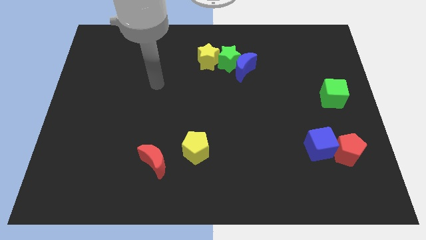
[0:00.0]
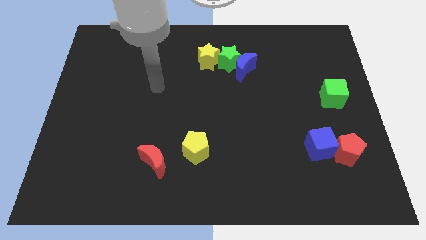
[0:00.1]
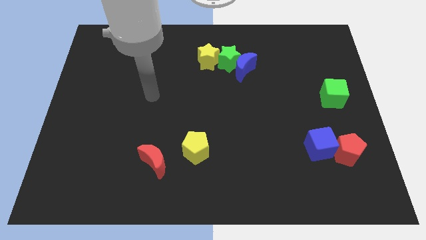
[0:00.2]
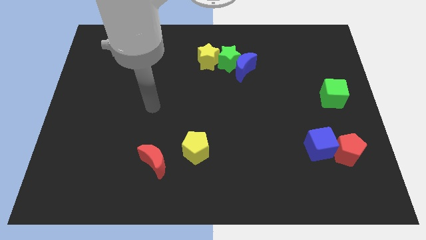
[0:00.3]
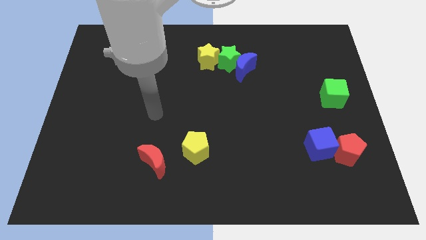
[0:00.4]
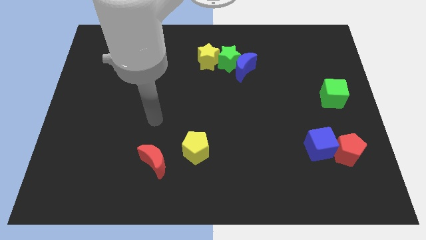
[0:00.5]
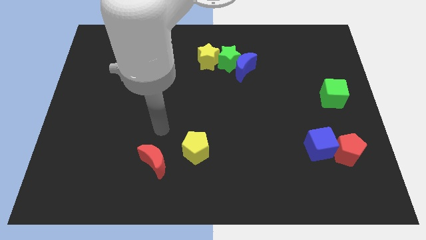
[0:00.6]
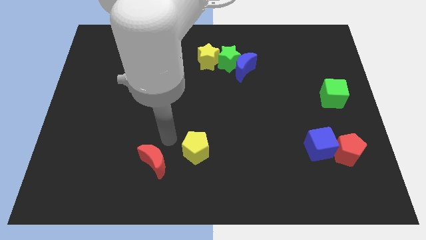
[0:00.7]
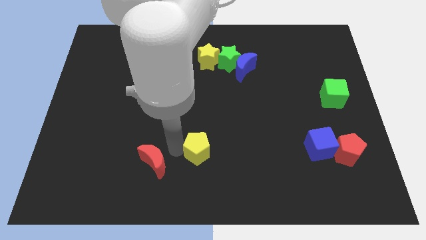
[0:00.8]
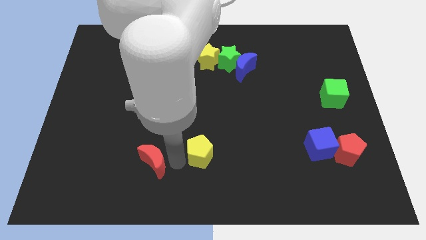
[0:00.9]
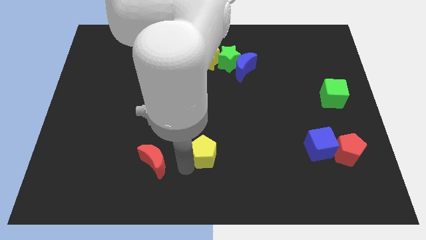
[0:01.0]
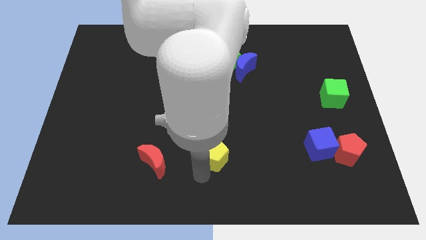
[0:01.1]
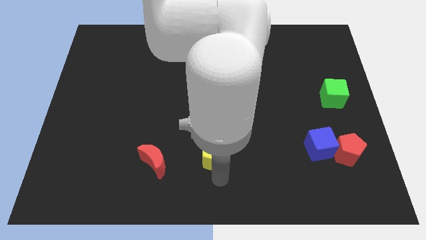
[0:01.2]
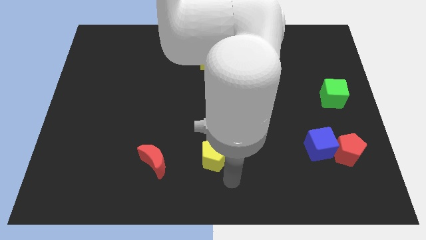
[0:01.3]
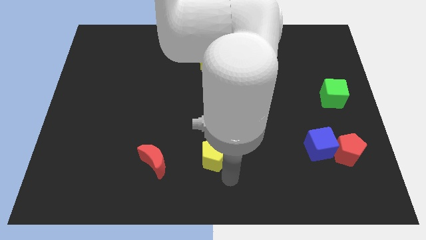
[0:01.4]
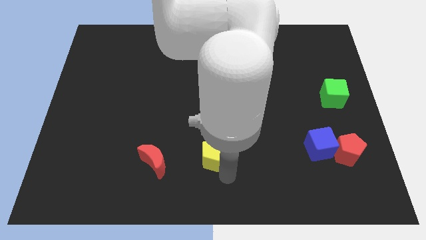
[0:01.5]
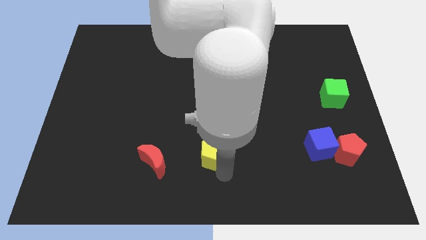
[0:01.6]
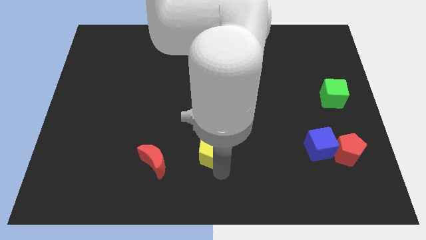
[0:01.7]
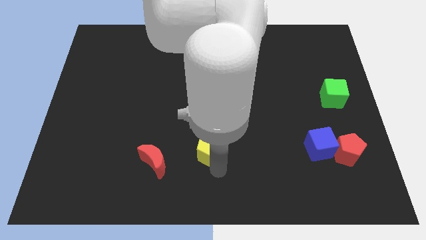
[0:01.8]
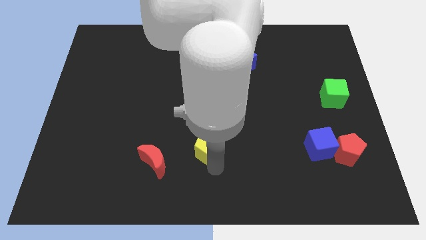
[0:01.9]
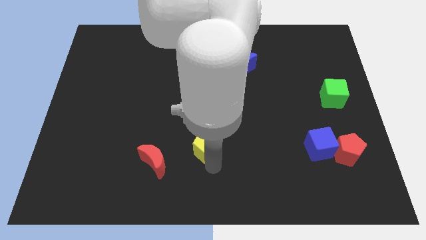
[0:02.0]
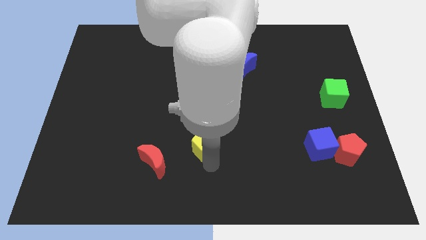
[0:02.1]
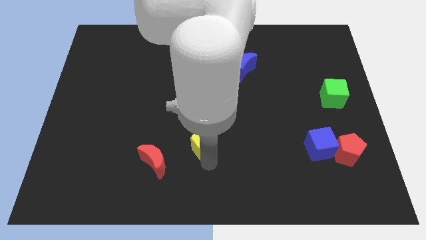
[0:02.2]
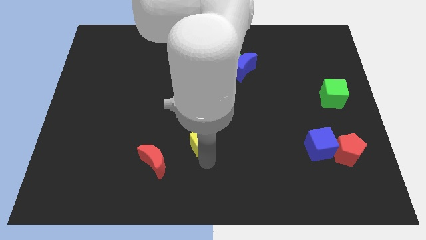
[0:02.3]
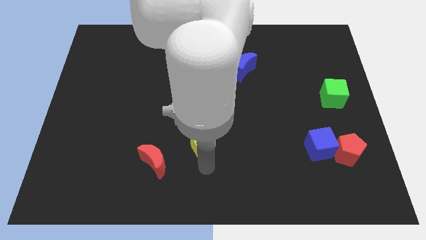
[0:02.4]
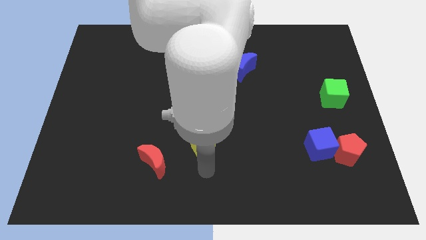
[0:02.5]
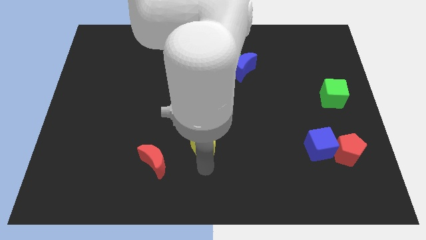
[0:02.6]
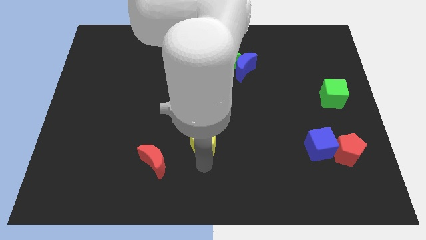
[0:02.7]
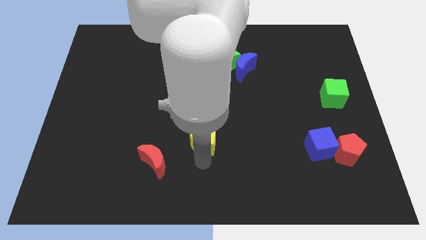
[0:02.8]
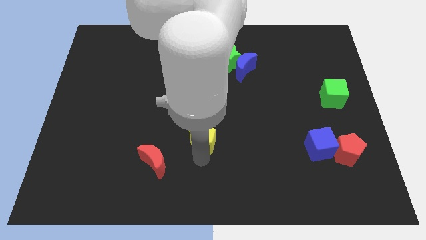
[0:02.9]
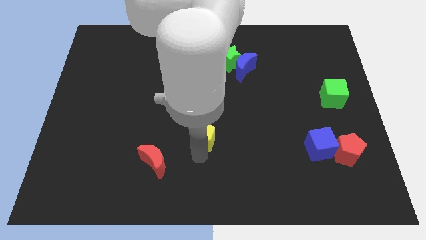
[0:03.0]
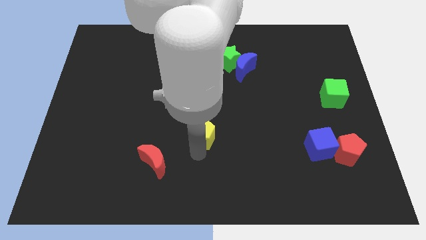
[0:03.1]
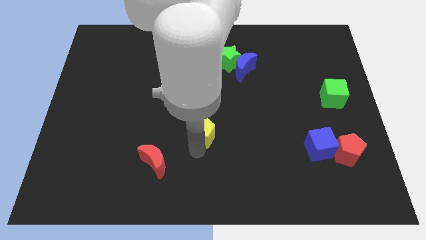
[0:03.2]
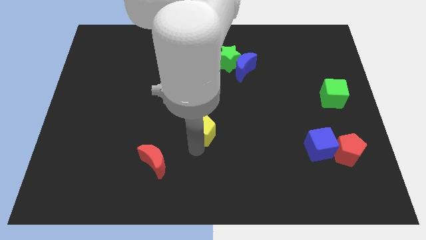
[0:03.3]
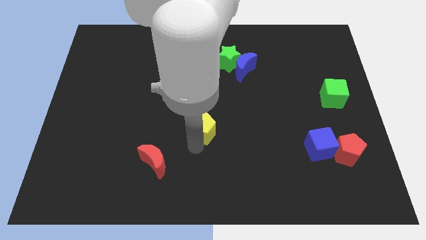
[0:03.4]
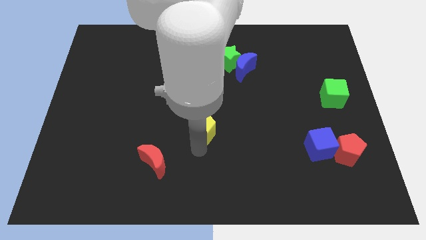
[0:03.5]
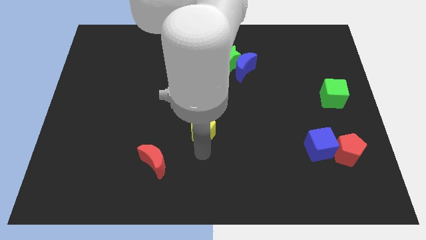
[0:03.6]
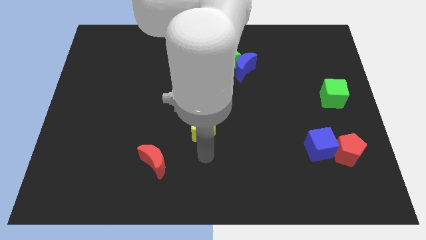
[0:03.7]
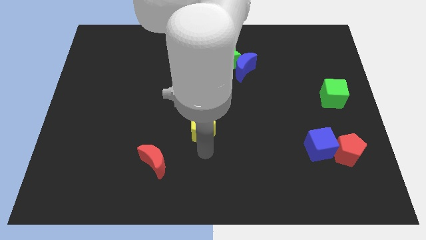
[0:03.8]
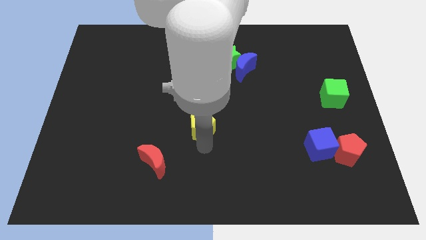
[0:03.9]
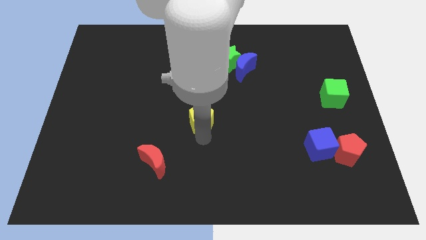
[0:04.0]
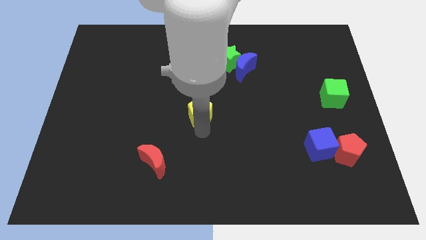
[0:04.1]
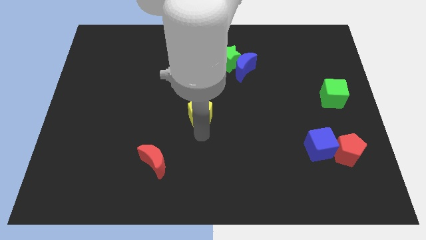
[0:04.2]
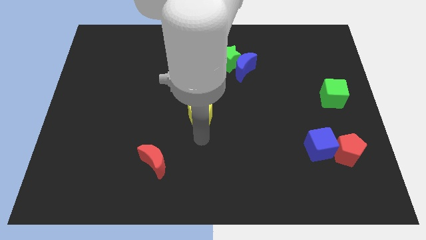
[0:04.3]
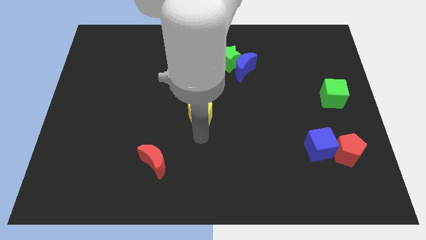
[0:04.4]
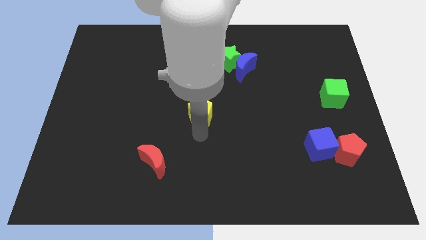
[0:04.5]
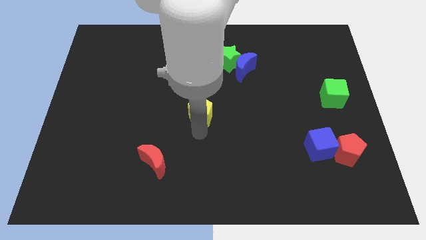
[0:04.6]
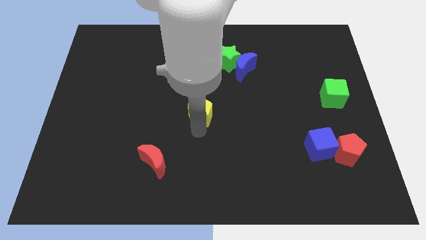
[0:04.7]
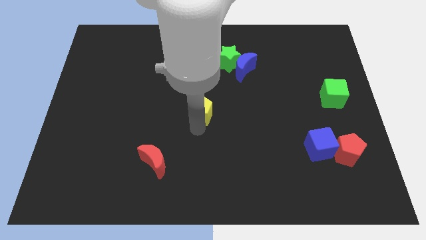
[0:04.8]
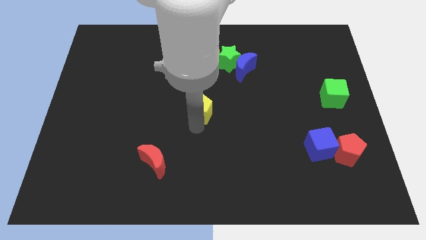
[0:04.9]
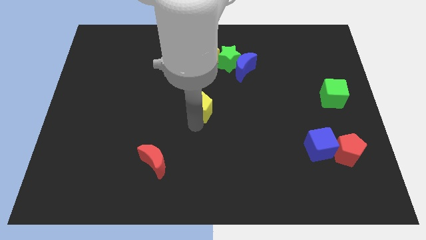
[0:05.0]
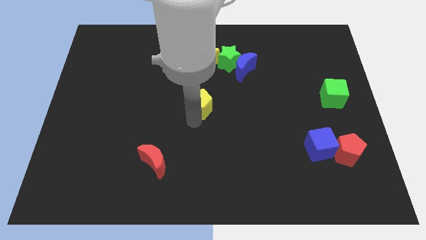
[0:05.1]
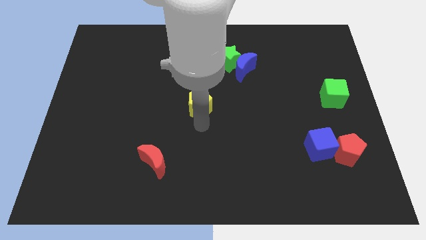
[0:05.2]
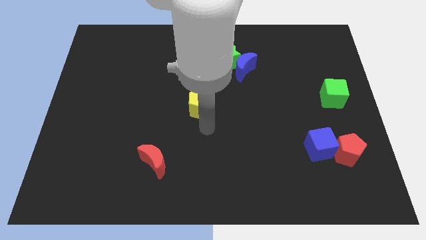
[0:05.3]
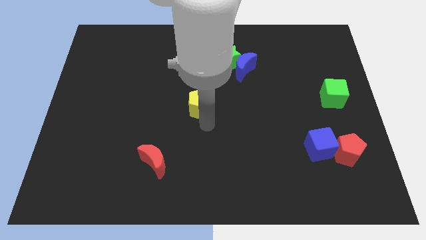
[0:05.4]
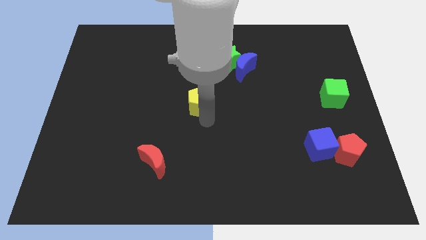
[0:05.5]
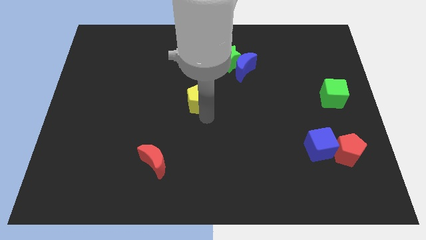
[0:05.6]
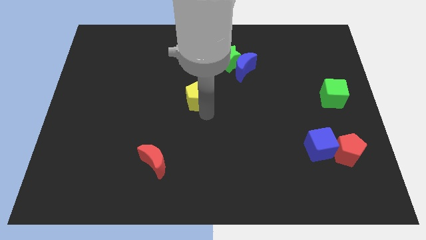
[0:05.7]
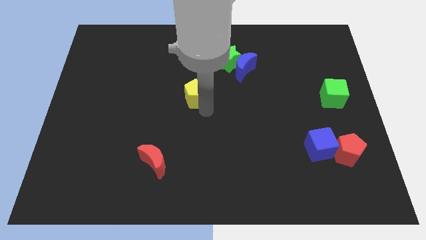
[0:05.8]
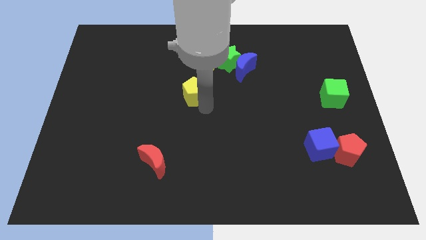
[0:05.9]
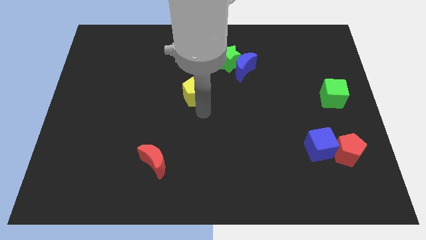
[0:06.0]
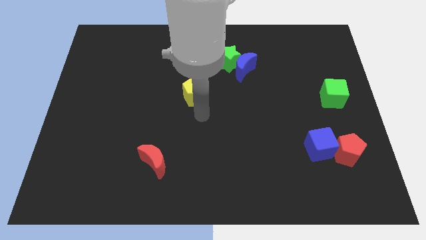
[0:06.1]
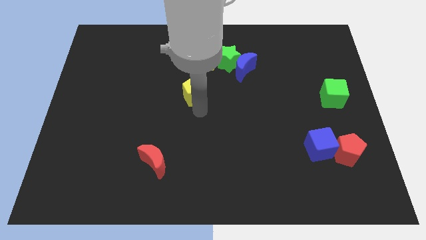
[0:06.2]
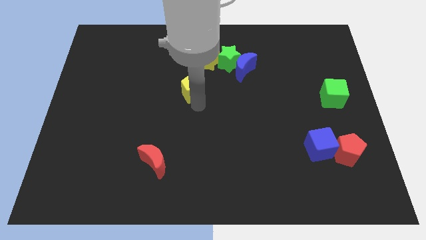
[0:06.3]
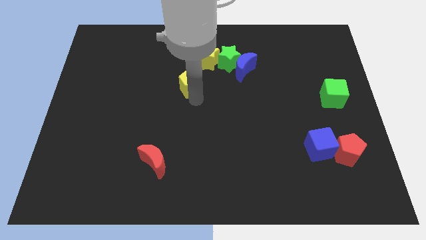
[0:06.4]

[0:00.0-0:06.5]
move the yellow pentagon diagonally down and to the left of the yellow star
